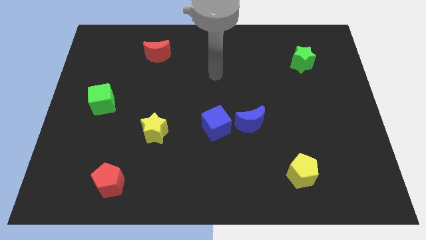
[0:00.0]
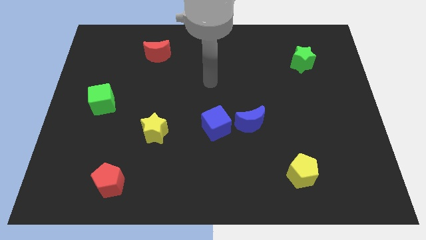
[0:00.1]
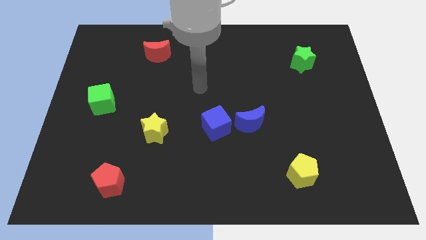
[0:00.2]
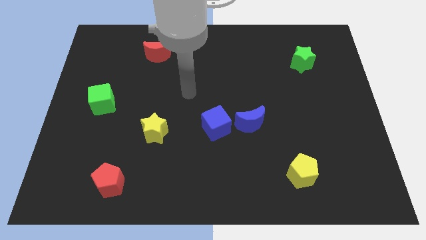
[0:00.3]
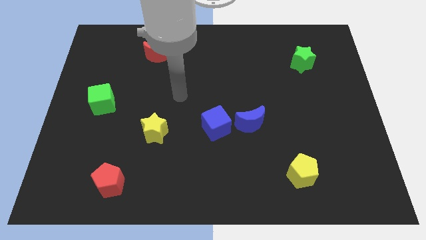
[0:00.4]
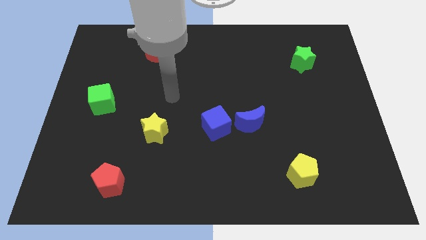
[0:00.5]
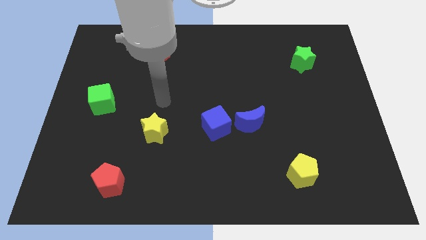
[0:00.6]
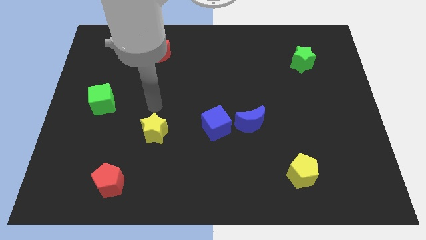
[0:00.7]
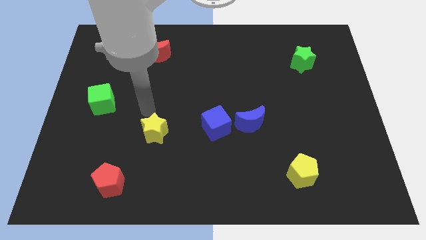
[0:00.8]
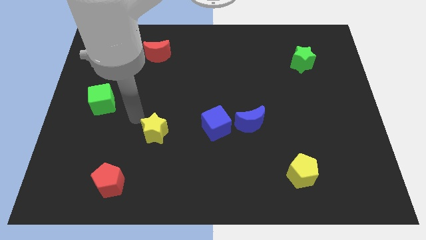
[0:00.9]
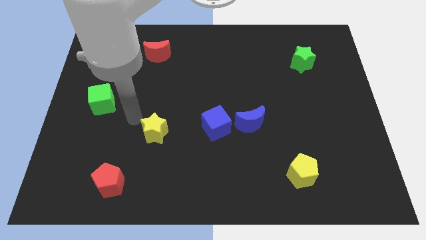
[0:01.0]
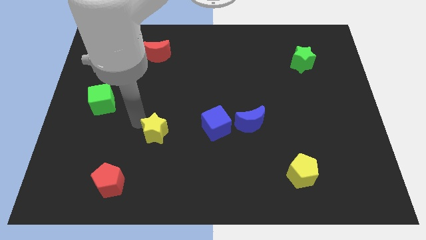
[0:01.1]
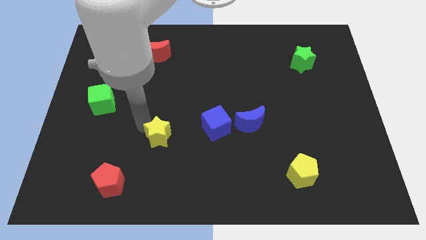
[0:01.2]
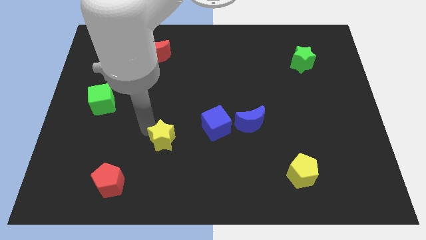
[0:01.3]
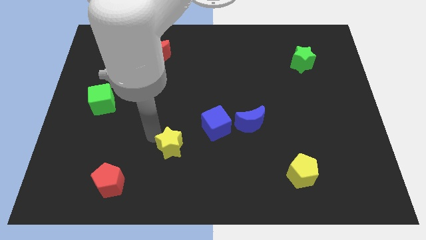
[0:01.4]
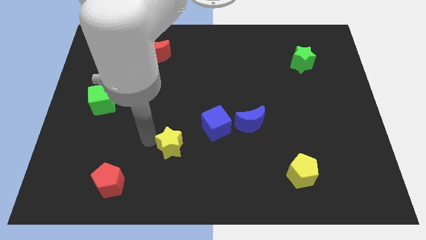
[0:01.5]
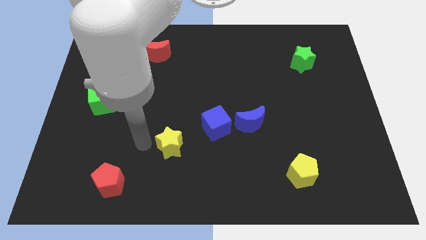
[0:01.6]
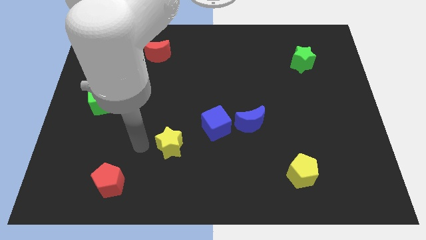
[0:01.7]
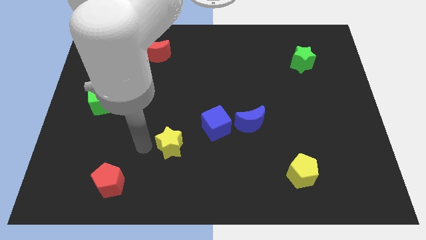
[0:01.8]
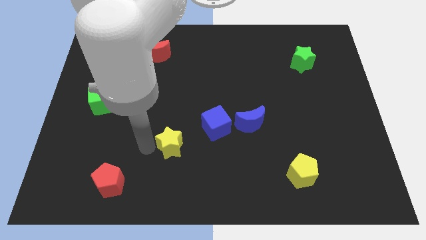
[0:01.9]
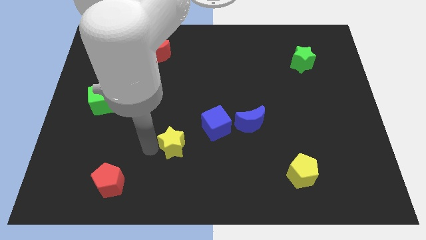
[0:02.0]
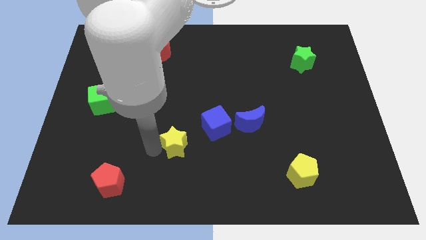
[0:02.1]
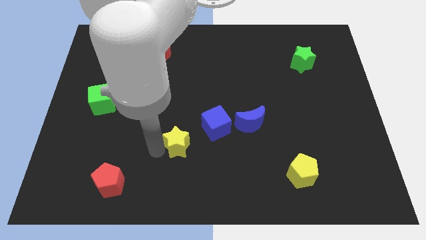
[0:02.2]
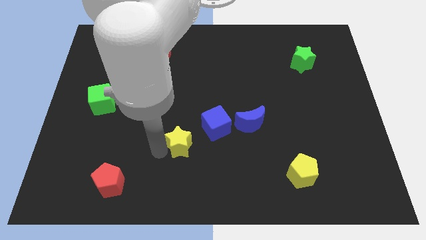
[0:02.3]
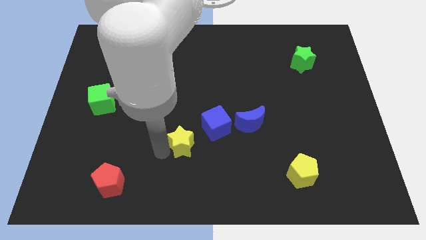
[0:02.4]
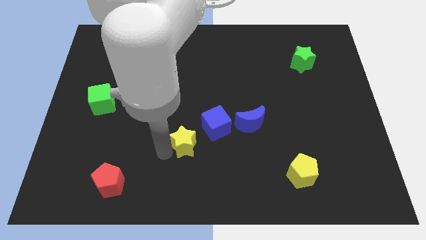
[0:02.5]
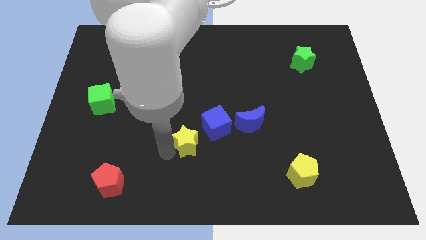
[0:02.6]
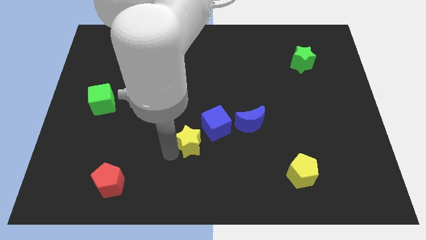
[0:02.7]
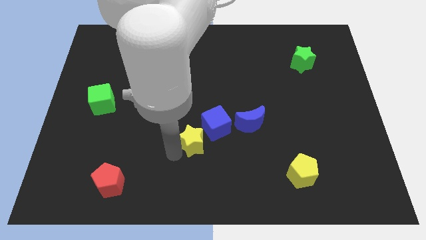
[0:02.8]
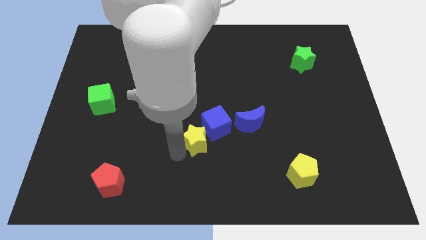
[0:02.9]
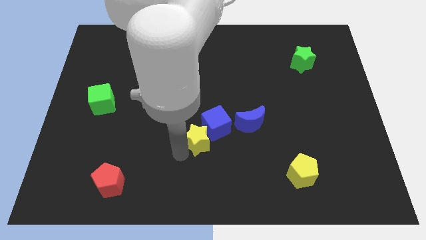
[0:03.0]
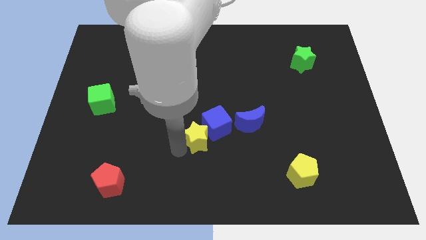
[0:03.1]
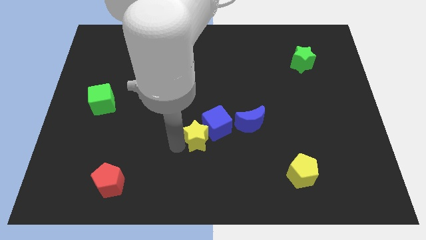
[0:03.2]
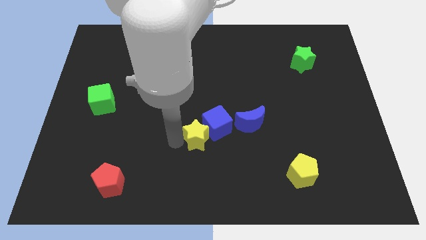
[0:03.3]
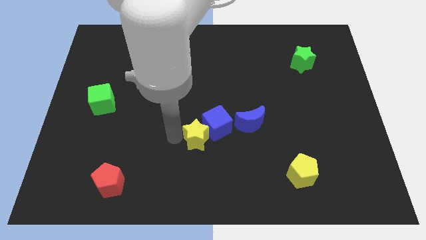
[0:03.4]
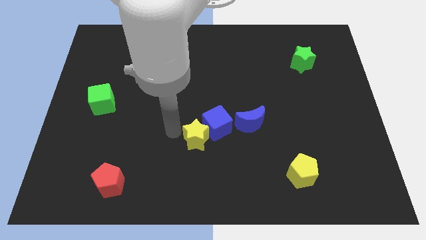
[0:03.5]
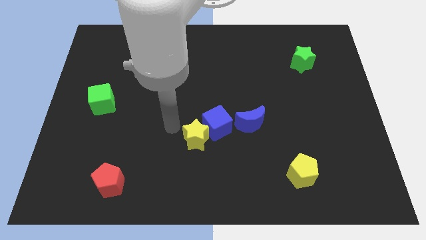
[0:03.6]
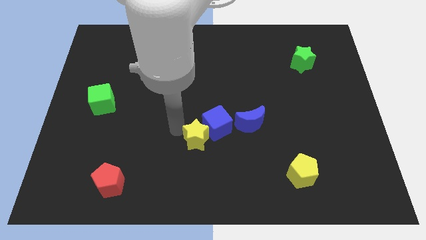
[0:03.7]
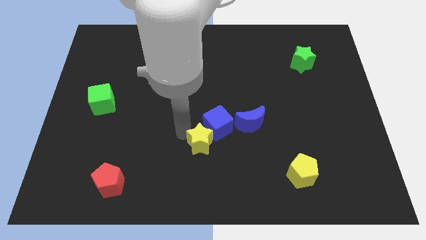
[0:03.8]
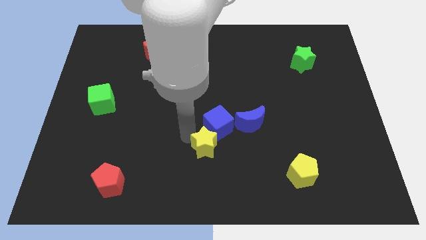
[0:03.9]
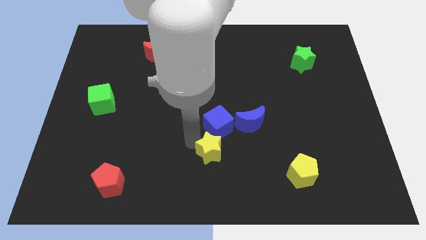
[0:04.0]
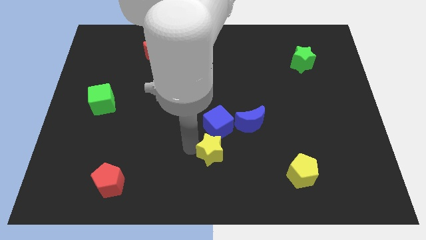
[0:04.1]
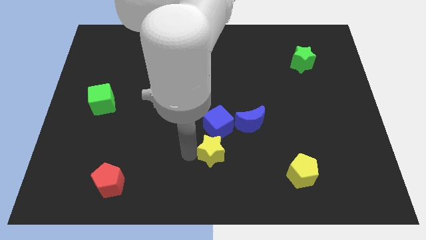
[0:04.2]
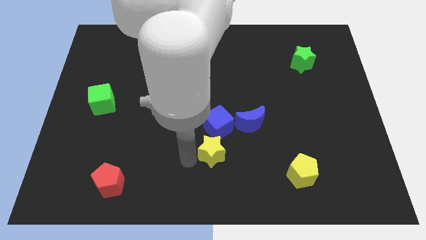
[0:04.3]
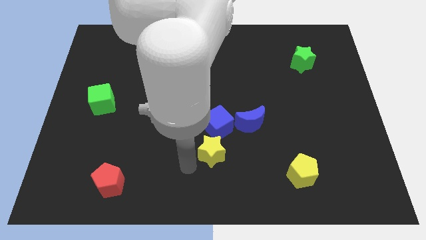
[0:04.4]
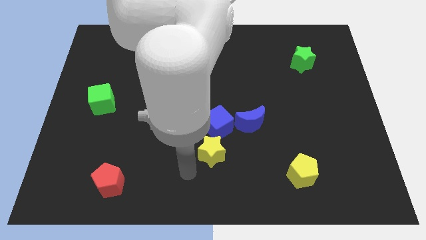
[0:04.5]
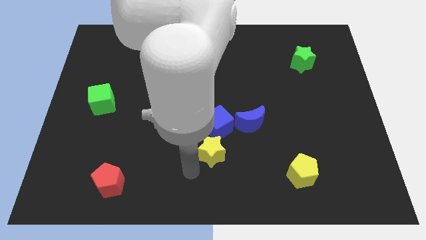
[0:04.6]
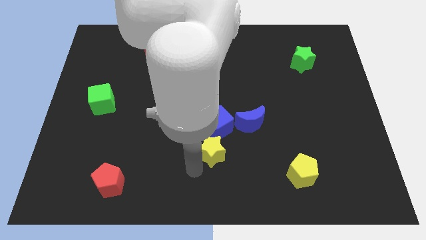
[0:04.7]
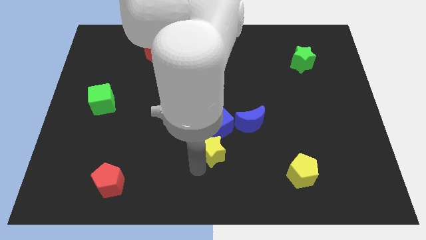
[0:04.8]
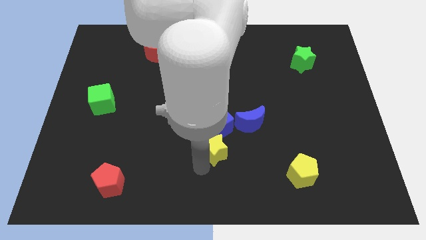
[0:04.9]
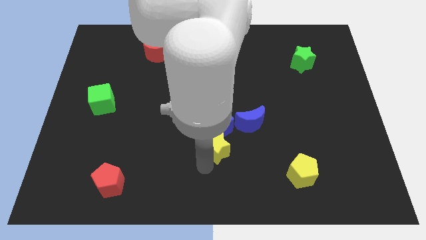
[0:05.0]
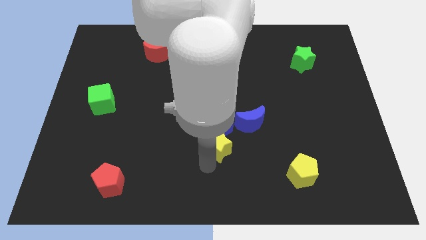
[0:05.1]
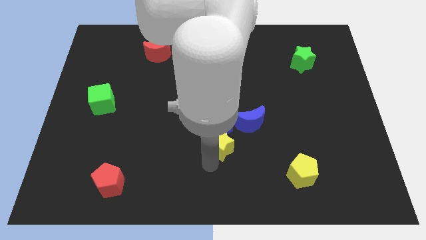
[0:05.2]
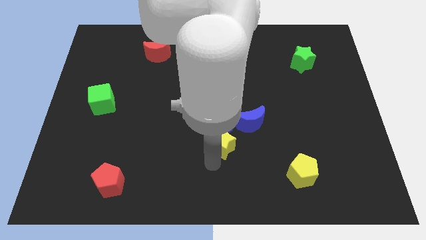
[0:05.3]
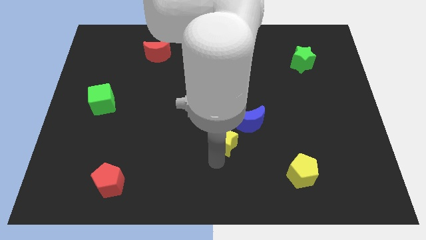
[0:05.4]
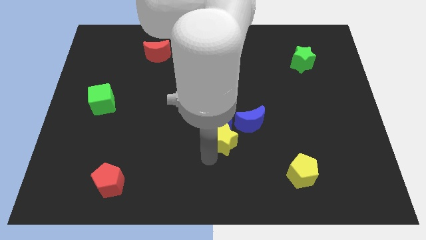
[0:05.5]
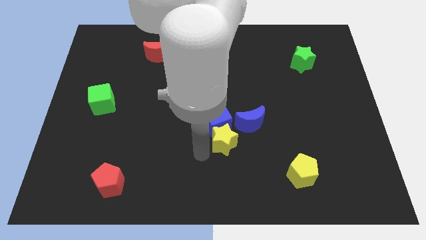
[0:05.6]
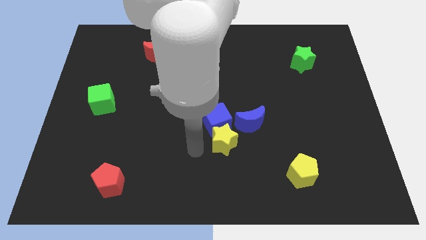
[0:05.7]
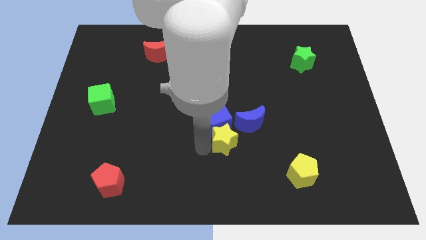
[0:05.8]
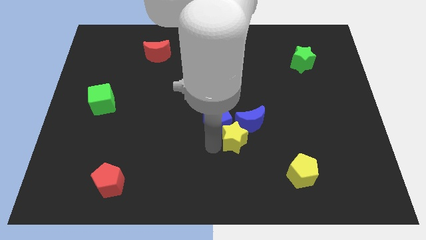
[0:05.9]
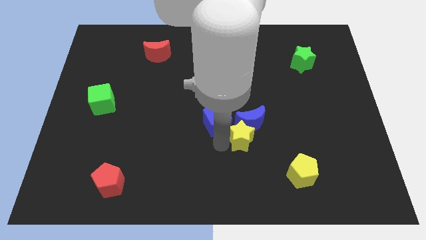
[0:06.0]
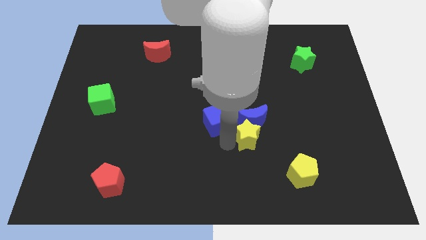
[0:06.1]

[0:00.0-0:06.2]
slide the yellow star to the right

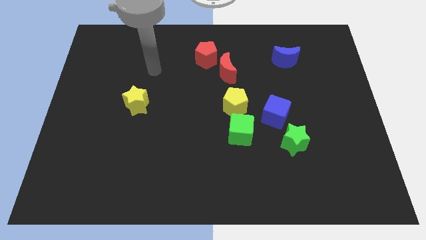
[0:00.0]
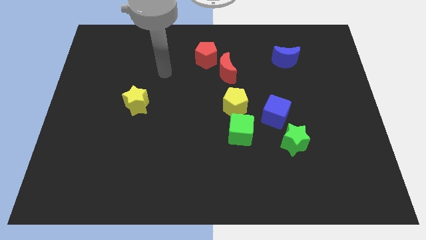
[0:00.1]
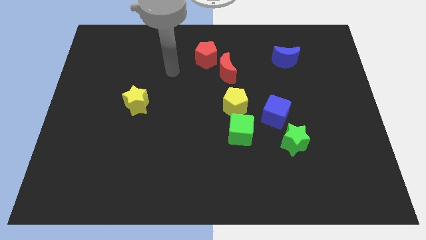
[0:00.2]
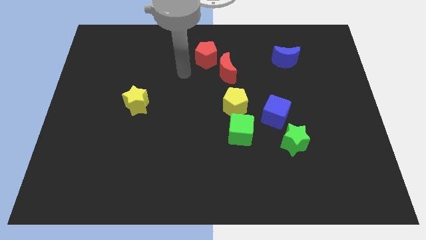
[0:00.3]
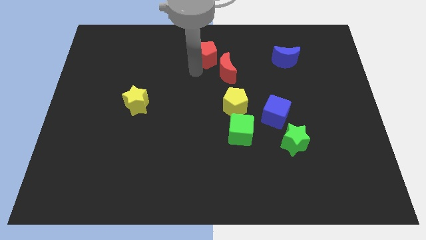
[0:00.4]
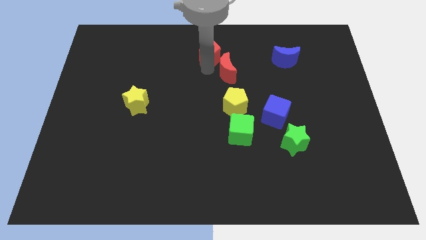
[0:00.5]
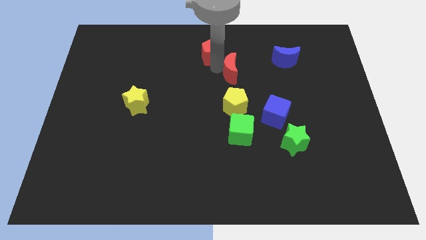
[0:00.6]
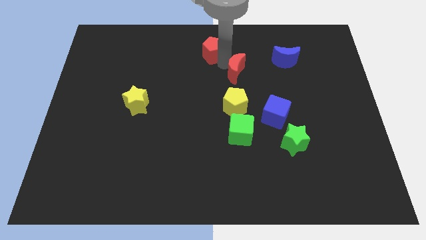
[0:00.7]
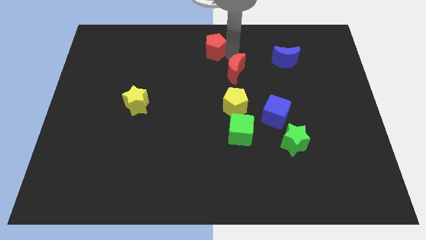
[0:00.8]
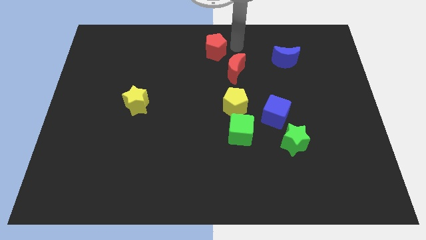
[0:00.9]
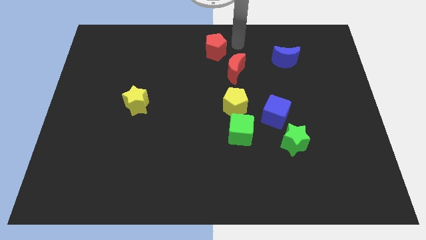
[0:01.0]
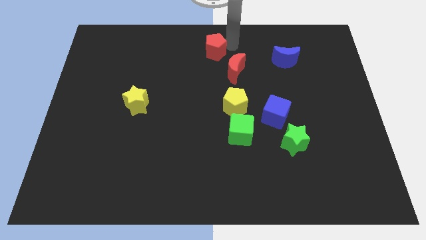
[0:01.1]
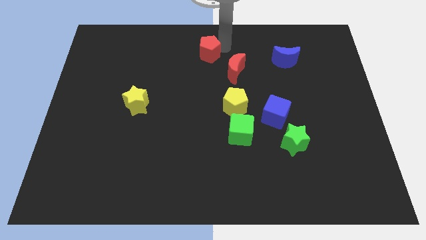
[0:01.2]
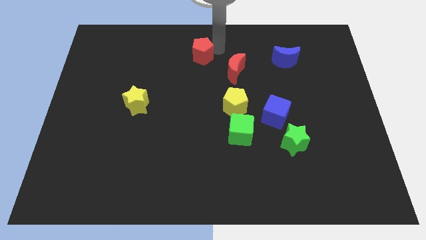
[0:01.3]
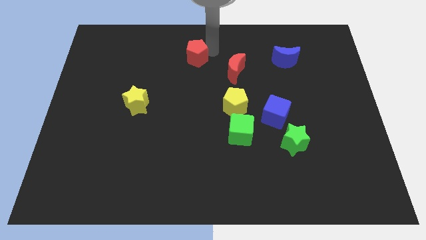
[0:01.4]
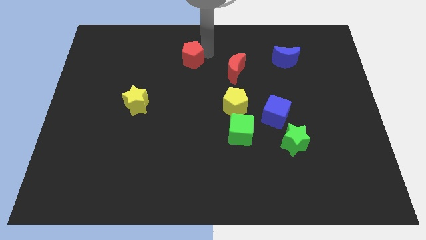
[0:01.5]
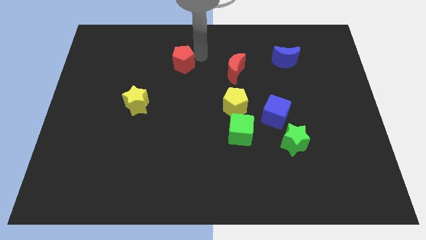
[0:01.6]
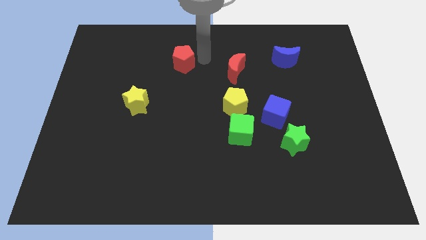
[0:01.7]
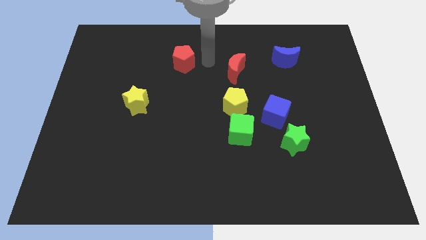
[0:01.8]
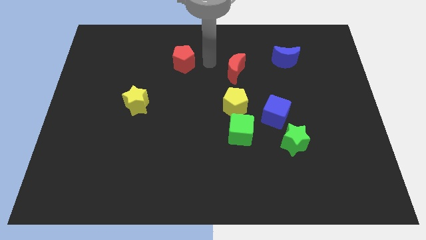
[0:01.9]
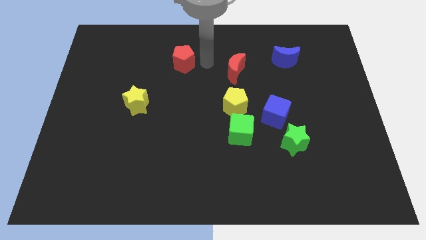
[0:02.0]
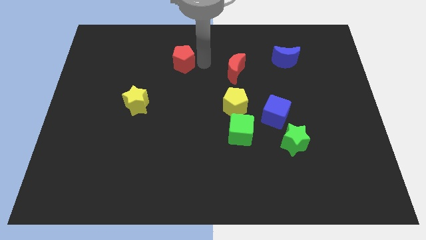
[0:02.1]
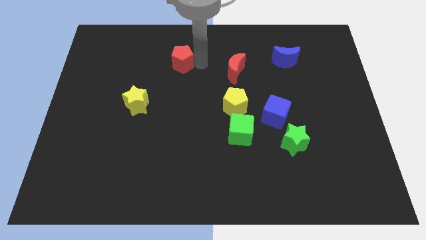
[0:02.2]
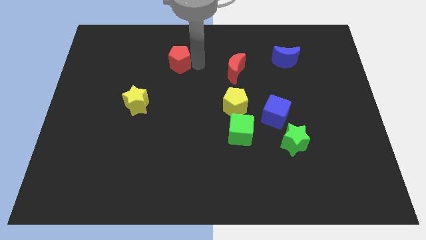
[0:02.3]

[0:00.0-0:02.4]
push the red pentagon to the left a little
